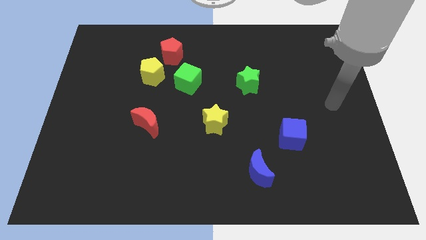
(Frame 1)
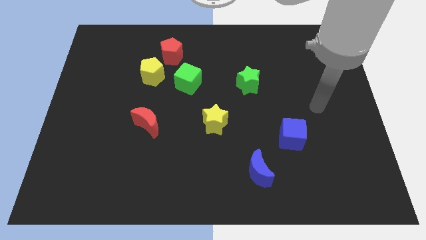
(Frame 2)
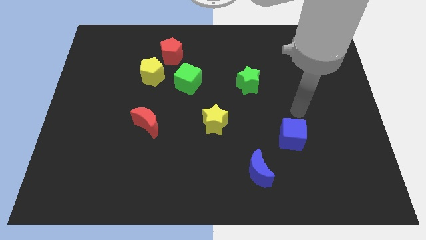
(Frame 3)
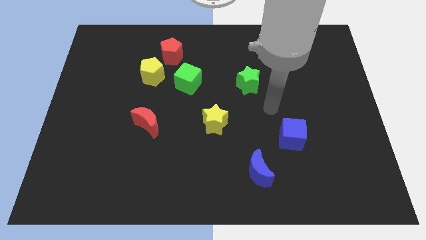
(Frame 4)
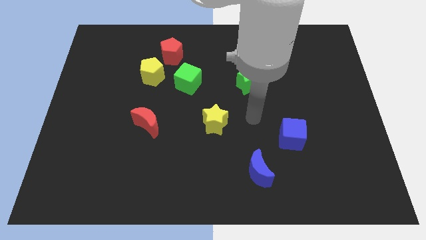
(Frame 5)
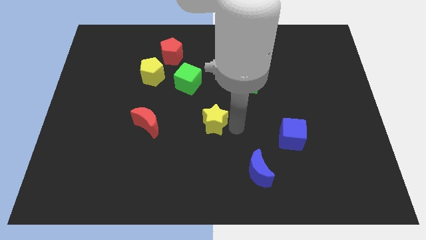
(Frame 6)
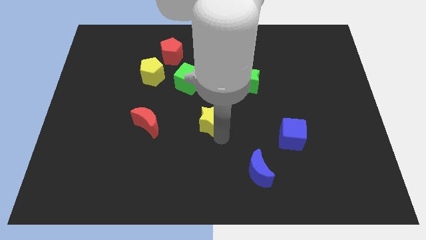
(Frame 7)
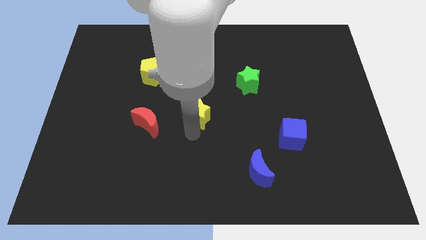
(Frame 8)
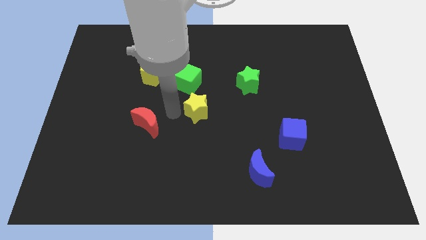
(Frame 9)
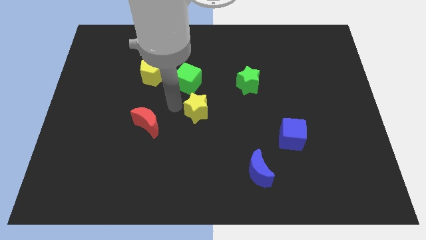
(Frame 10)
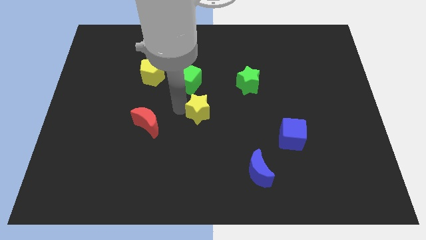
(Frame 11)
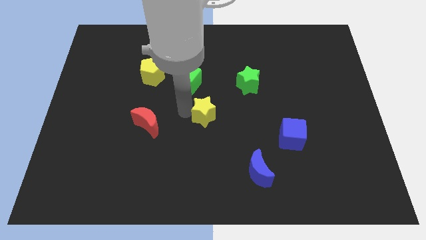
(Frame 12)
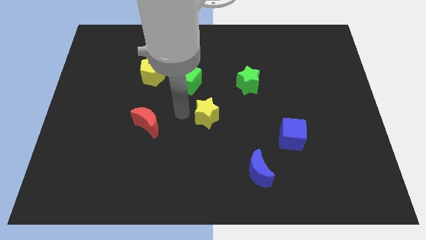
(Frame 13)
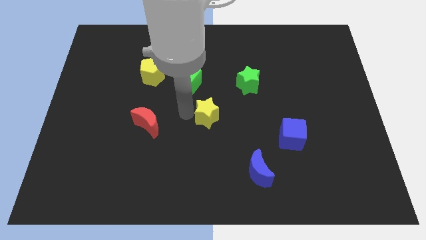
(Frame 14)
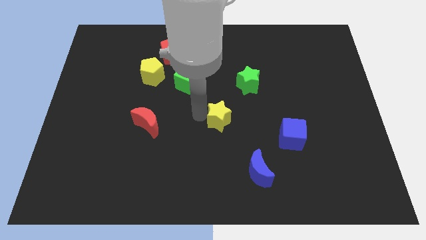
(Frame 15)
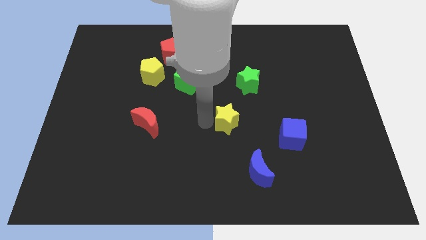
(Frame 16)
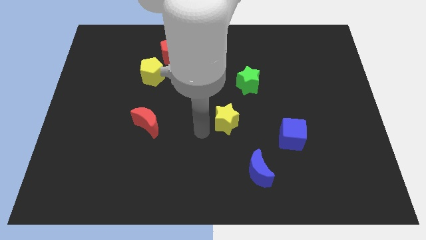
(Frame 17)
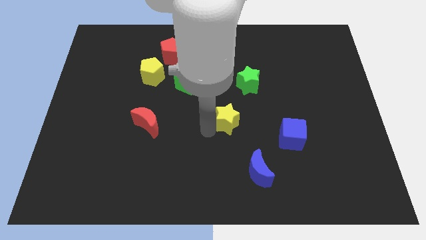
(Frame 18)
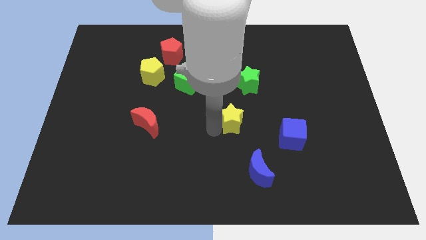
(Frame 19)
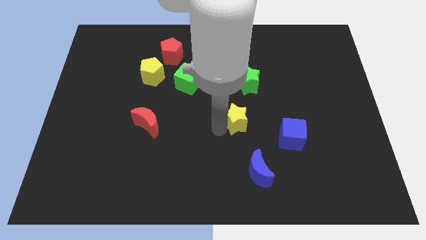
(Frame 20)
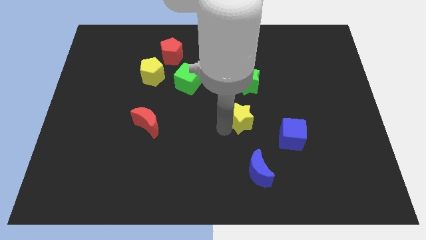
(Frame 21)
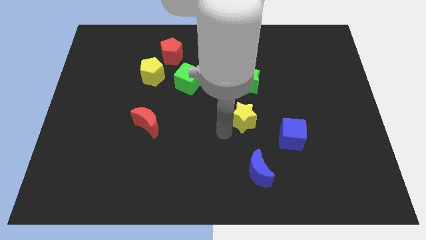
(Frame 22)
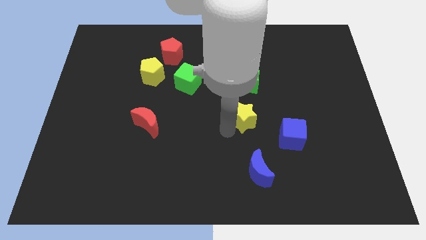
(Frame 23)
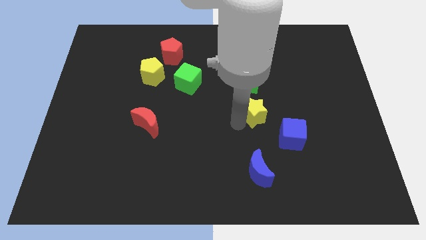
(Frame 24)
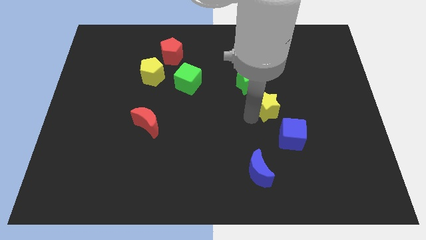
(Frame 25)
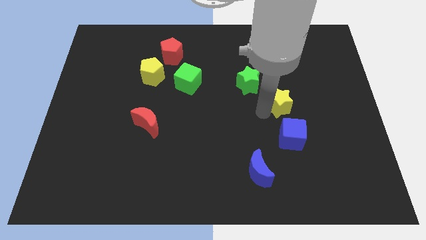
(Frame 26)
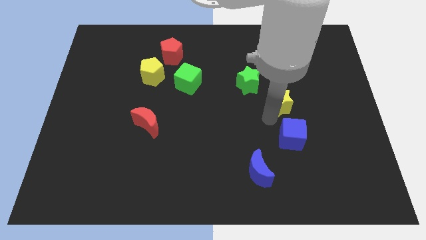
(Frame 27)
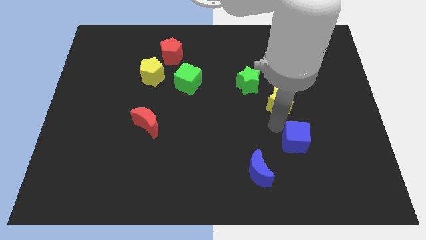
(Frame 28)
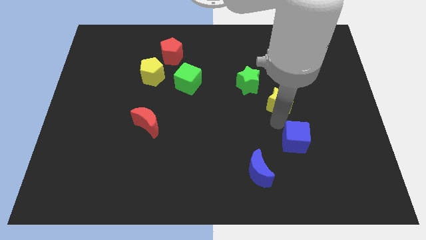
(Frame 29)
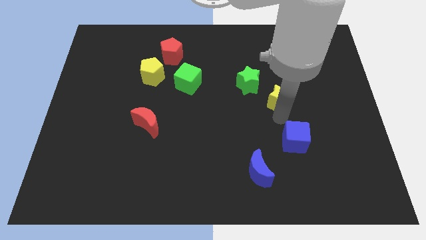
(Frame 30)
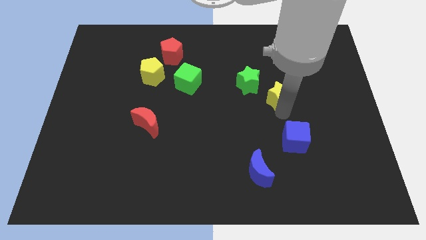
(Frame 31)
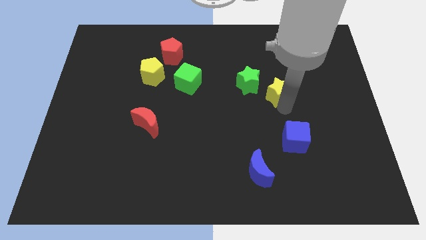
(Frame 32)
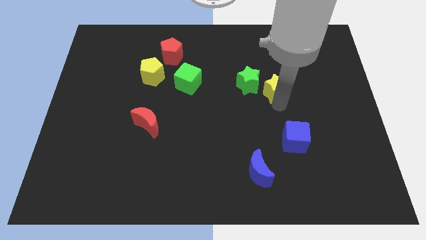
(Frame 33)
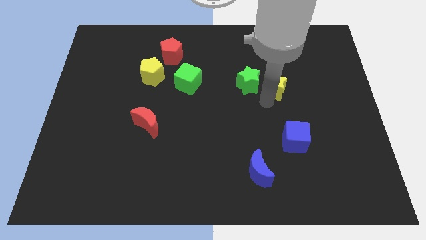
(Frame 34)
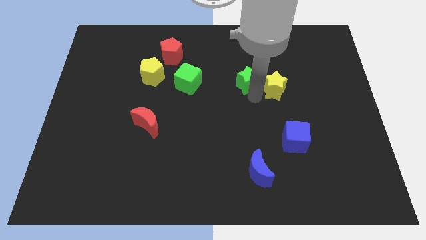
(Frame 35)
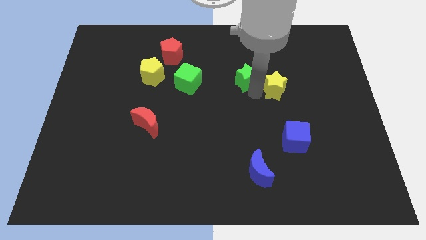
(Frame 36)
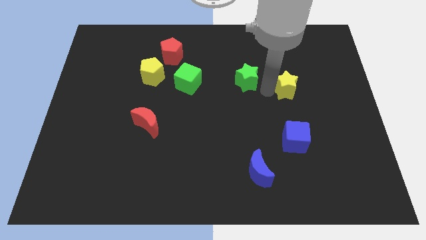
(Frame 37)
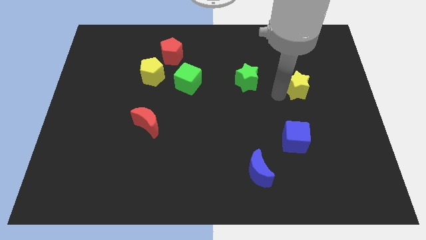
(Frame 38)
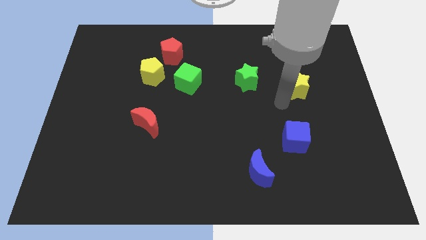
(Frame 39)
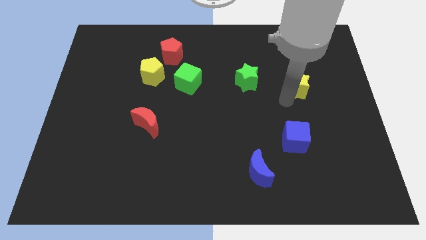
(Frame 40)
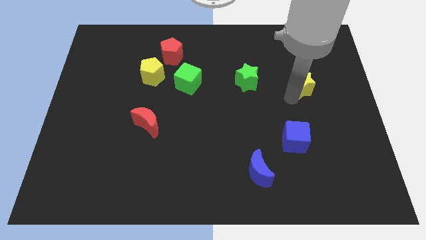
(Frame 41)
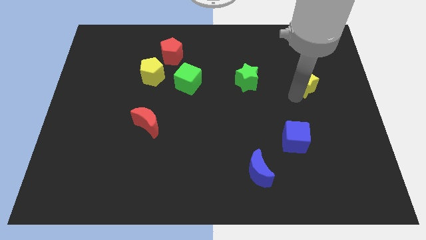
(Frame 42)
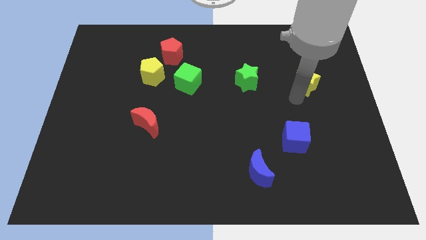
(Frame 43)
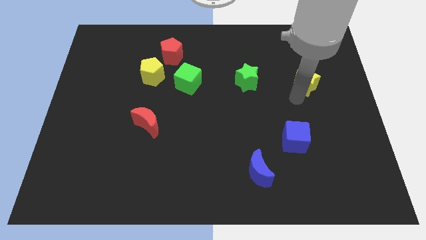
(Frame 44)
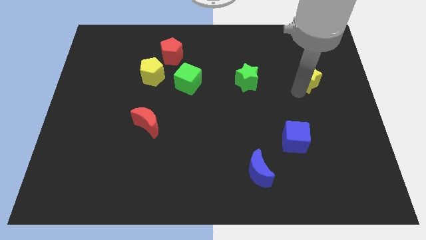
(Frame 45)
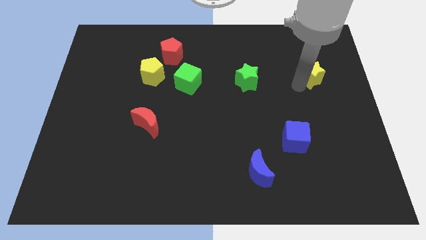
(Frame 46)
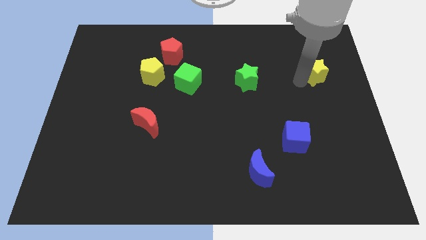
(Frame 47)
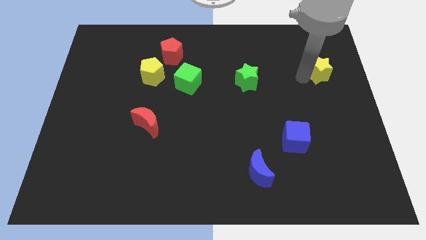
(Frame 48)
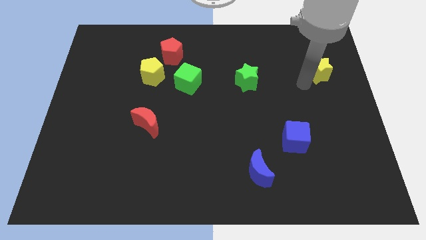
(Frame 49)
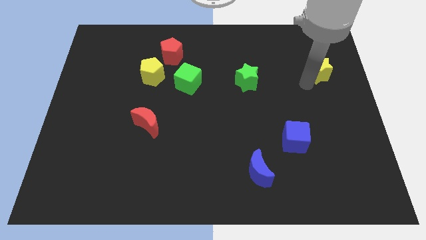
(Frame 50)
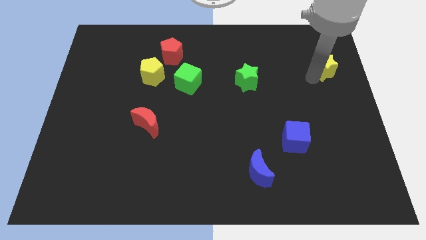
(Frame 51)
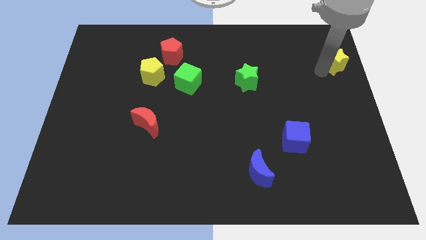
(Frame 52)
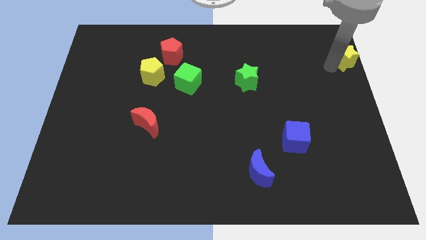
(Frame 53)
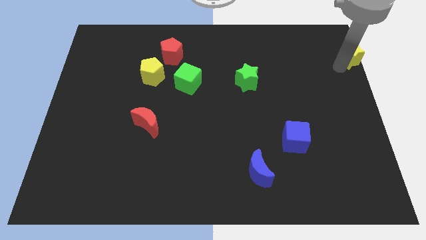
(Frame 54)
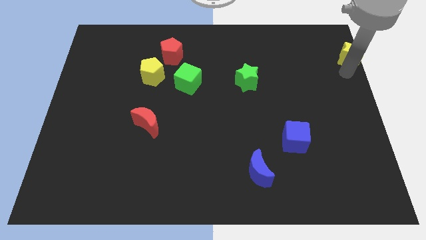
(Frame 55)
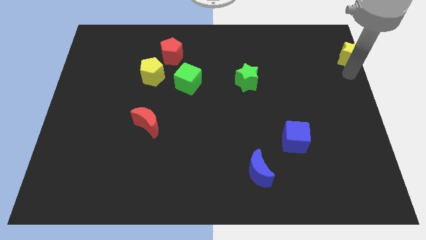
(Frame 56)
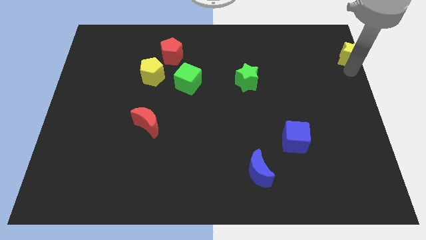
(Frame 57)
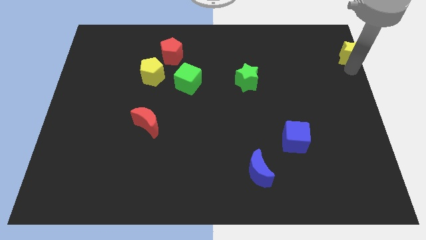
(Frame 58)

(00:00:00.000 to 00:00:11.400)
slide the yellow star to the top right of the board
